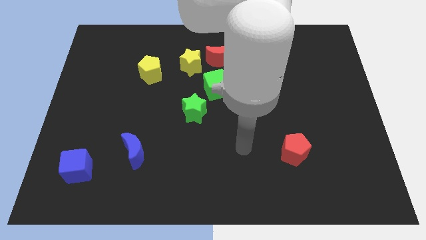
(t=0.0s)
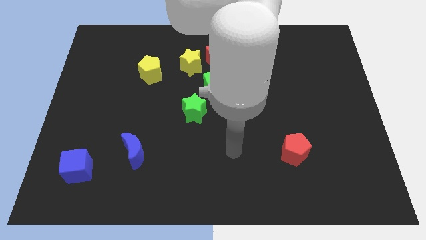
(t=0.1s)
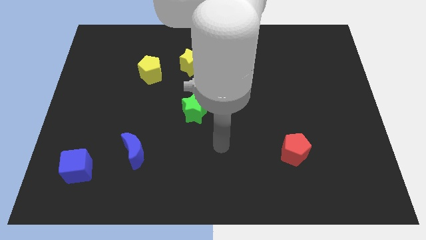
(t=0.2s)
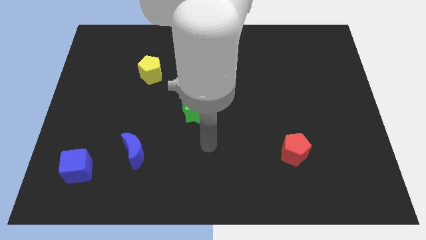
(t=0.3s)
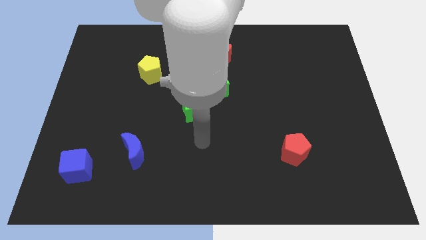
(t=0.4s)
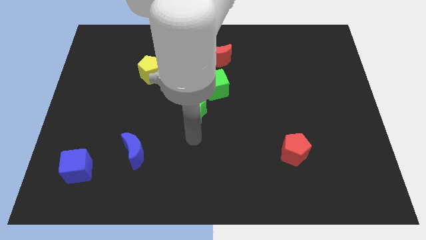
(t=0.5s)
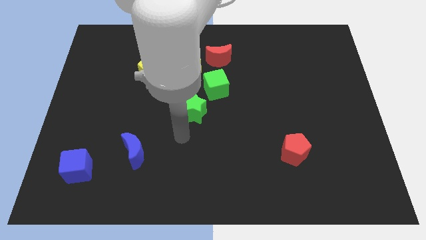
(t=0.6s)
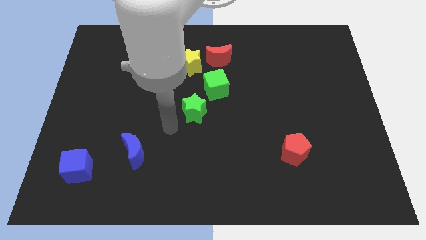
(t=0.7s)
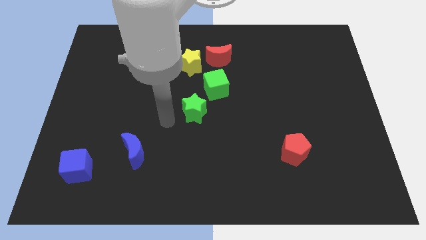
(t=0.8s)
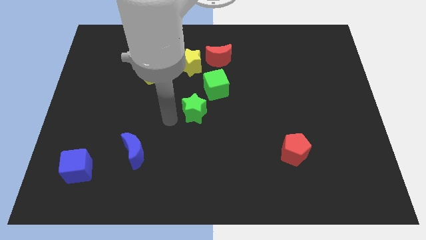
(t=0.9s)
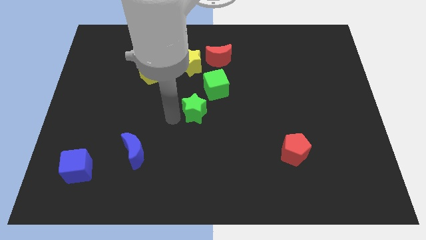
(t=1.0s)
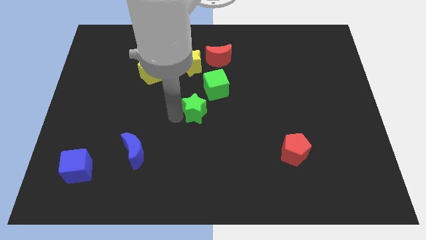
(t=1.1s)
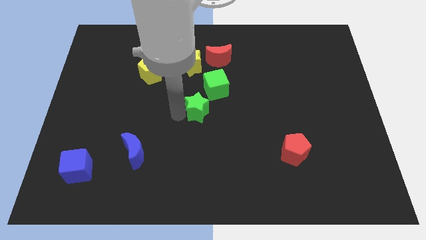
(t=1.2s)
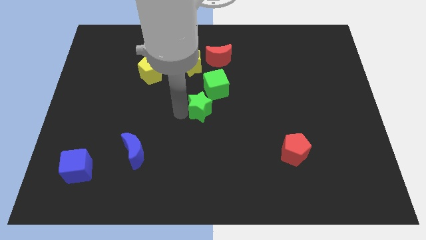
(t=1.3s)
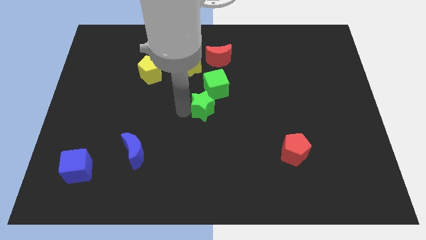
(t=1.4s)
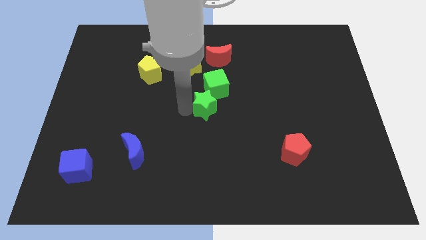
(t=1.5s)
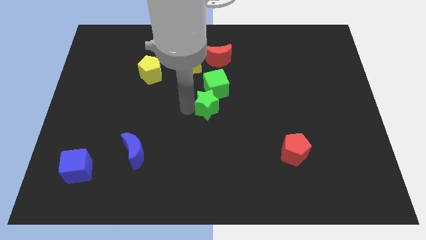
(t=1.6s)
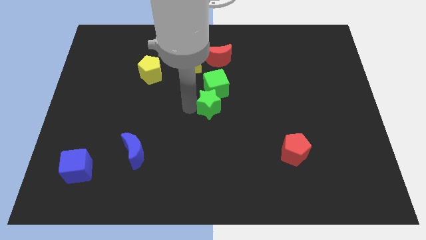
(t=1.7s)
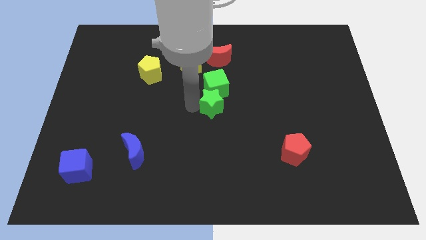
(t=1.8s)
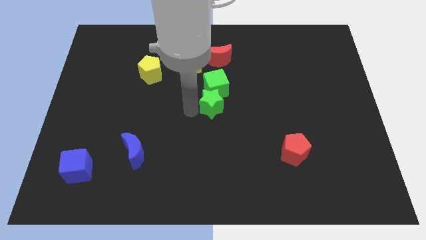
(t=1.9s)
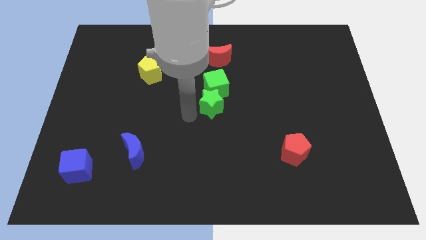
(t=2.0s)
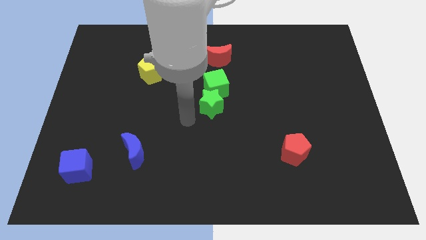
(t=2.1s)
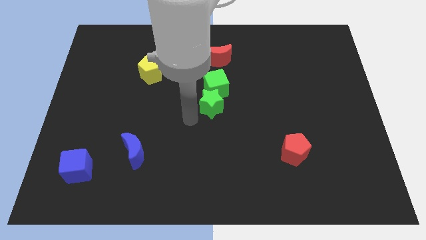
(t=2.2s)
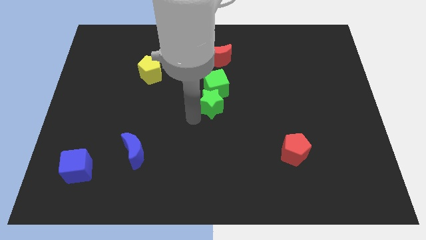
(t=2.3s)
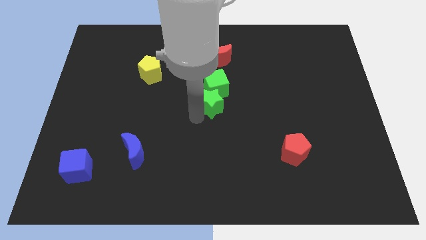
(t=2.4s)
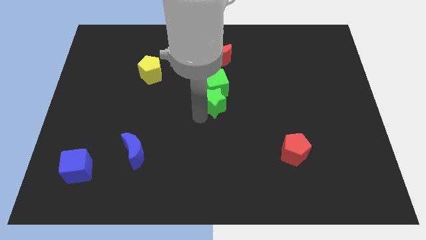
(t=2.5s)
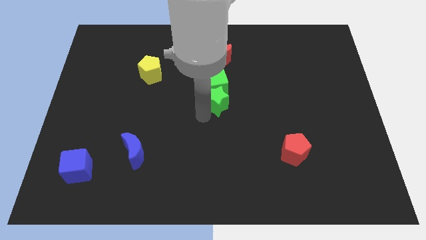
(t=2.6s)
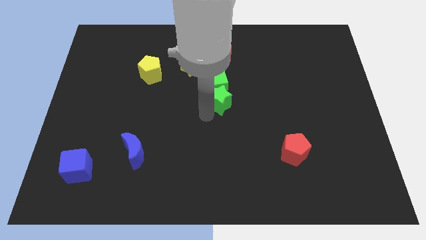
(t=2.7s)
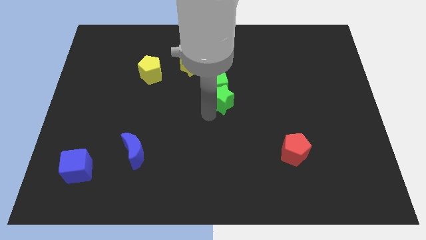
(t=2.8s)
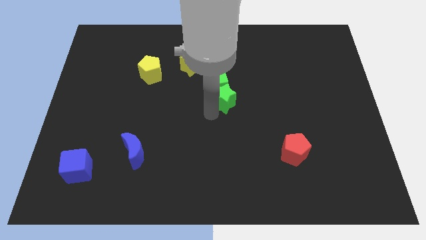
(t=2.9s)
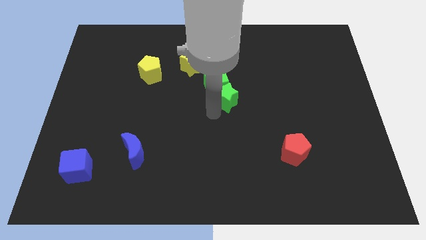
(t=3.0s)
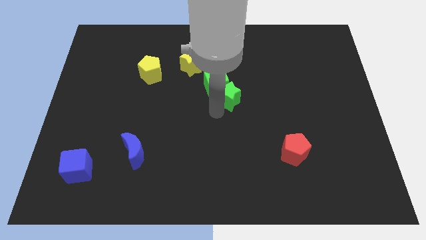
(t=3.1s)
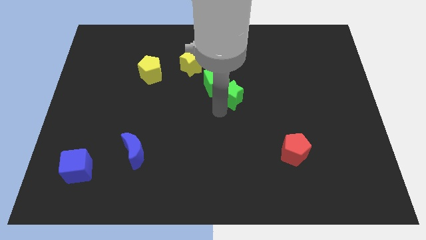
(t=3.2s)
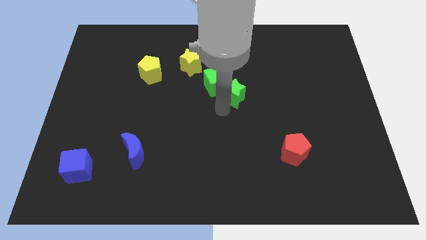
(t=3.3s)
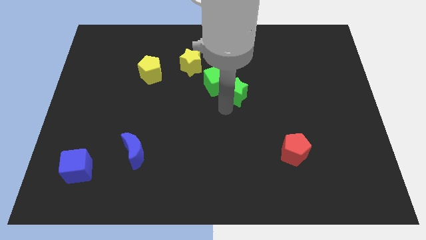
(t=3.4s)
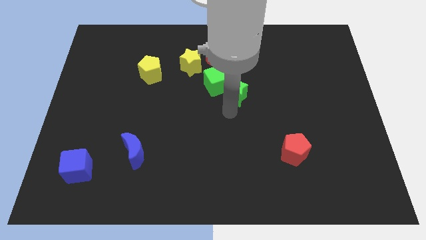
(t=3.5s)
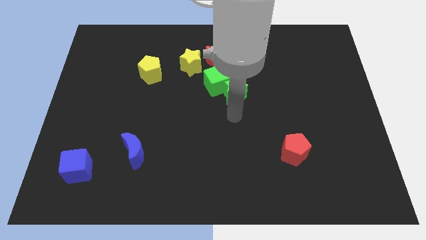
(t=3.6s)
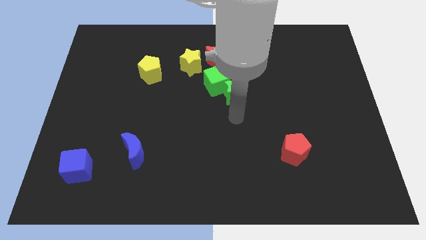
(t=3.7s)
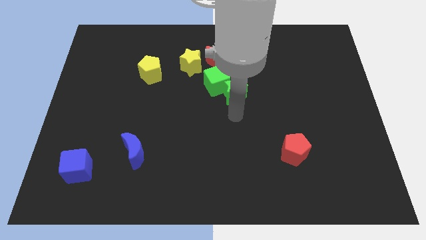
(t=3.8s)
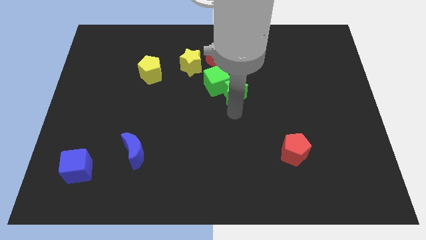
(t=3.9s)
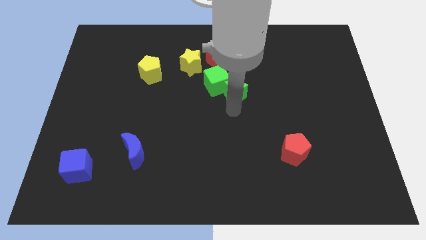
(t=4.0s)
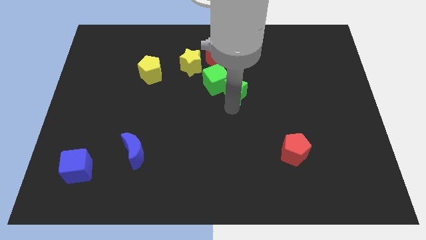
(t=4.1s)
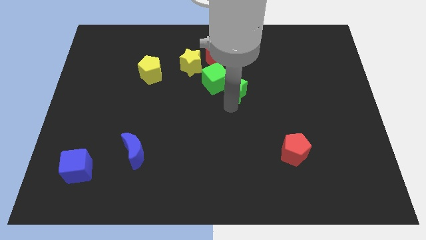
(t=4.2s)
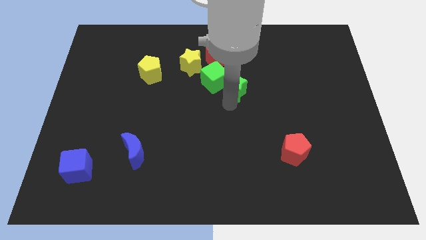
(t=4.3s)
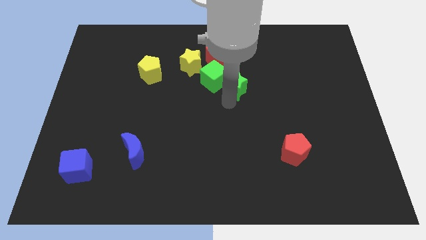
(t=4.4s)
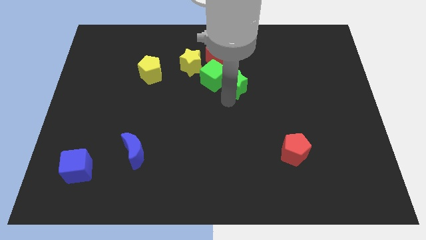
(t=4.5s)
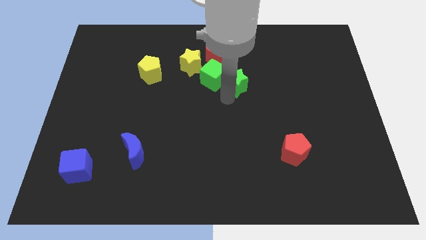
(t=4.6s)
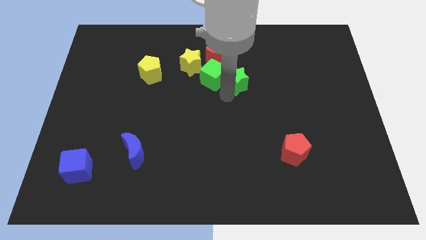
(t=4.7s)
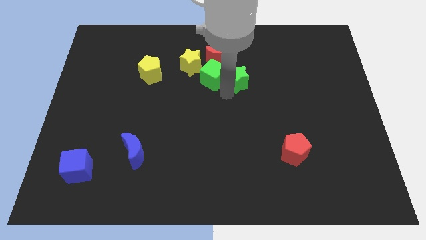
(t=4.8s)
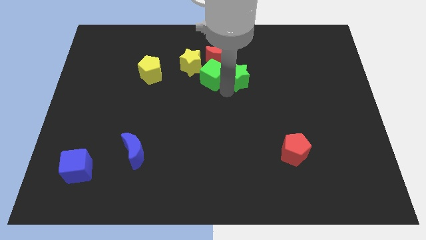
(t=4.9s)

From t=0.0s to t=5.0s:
push the green star to the right of the yellow star

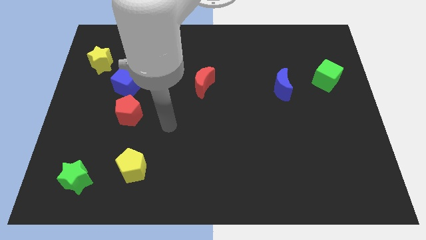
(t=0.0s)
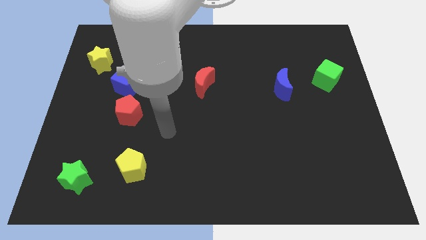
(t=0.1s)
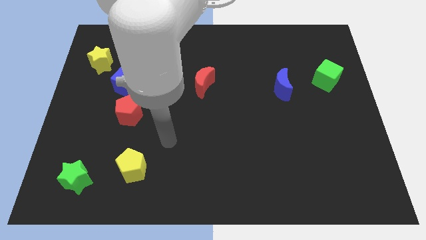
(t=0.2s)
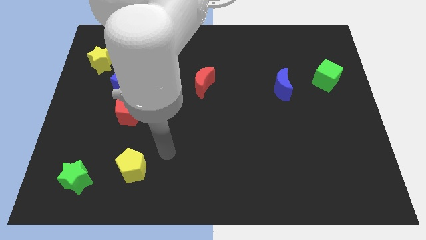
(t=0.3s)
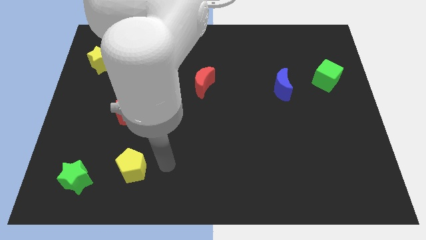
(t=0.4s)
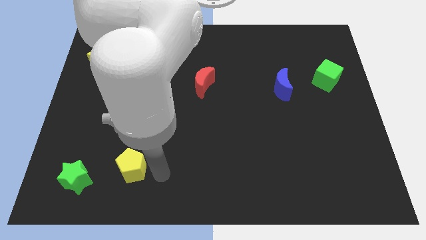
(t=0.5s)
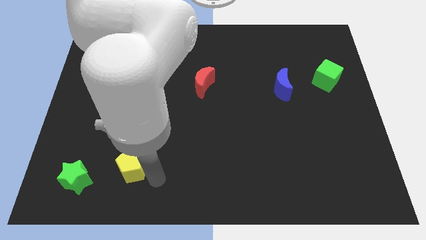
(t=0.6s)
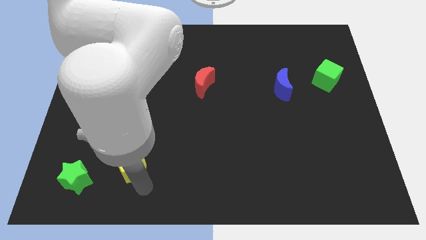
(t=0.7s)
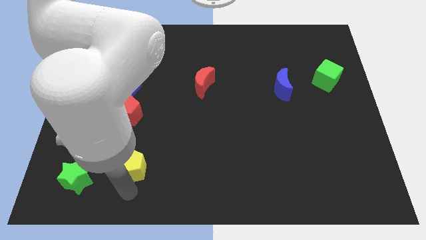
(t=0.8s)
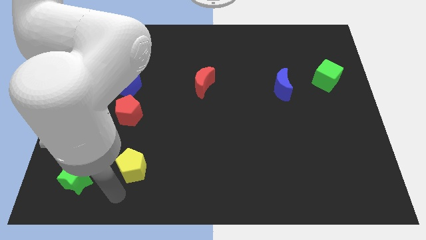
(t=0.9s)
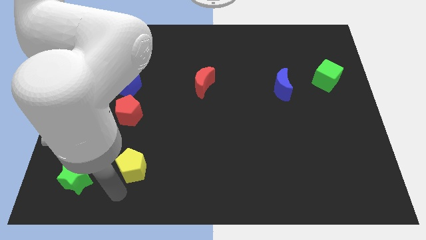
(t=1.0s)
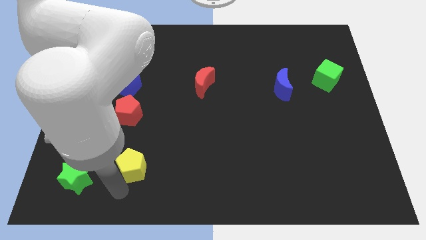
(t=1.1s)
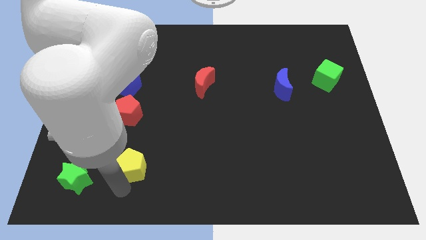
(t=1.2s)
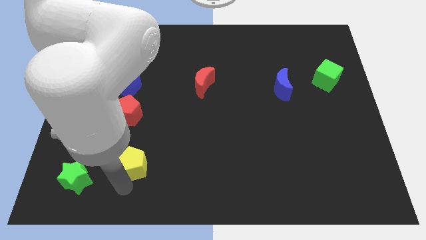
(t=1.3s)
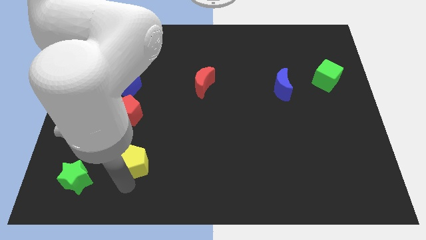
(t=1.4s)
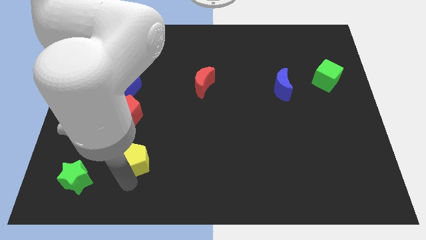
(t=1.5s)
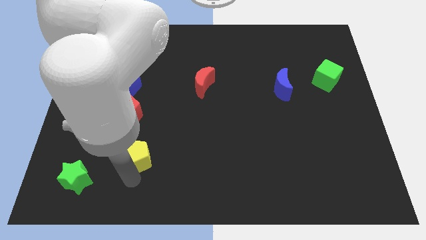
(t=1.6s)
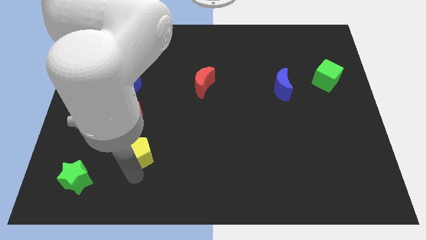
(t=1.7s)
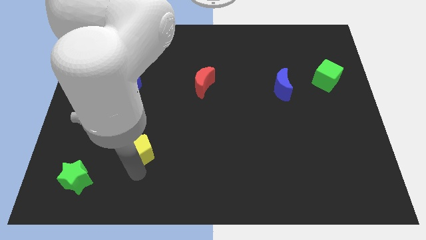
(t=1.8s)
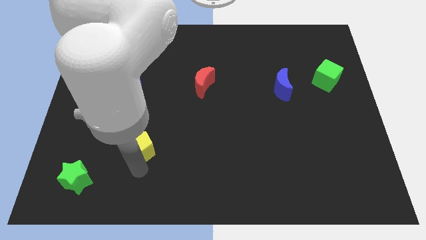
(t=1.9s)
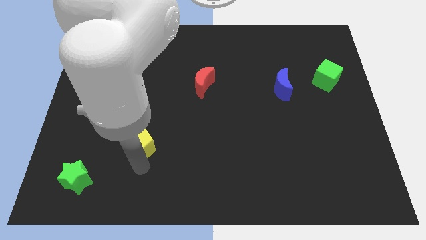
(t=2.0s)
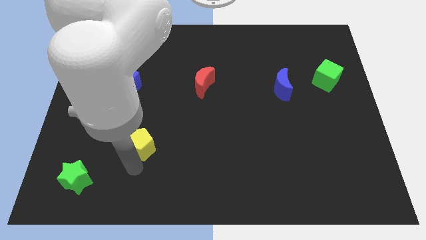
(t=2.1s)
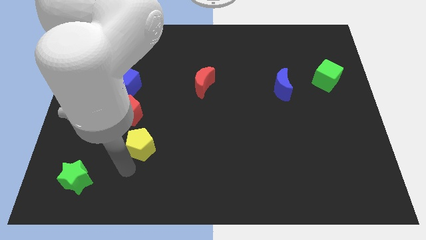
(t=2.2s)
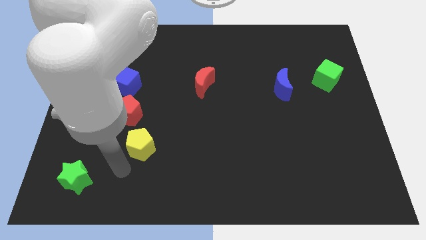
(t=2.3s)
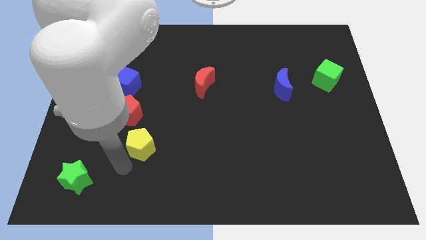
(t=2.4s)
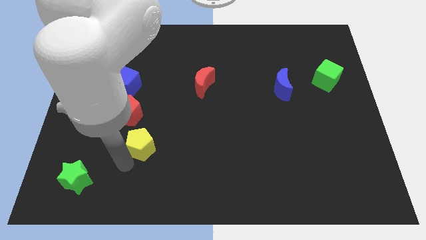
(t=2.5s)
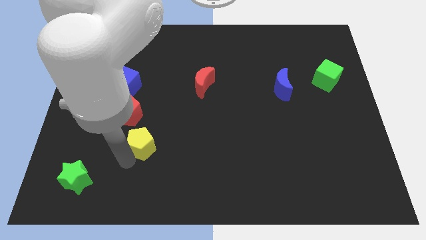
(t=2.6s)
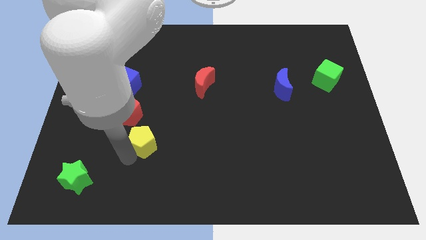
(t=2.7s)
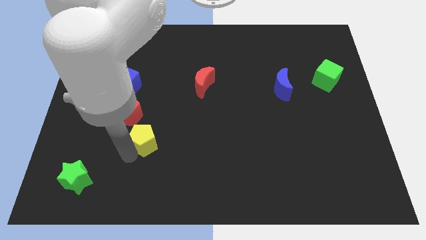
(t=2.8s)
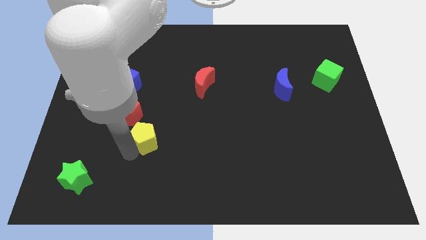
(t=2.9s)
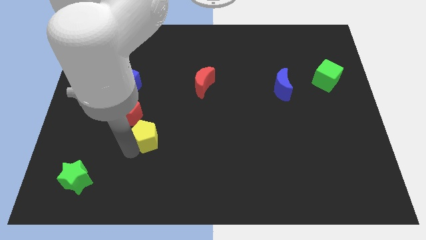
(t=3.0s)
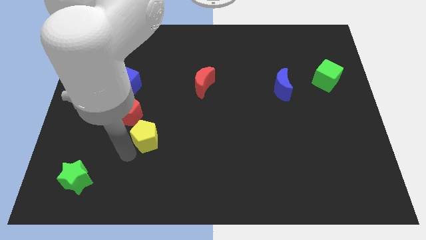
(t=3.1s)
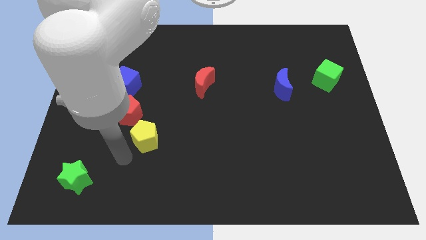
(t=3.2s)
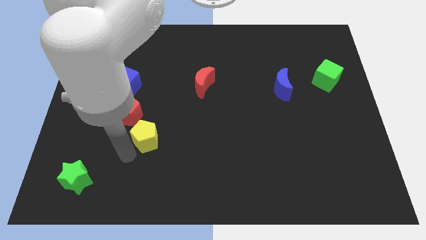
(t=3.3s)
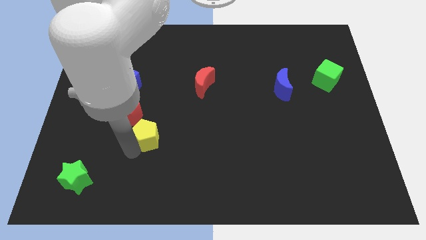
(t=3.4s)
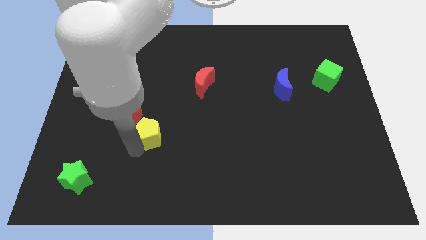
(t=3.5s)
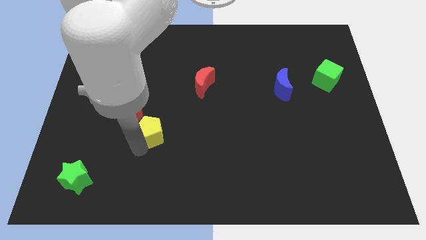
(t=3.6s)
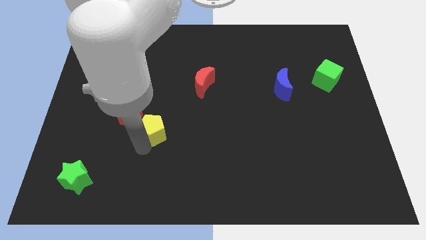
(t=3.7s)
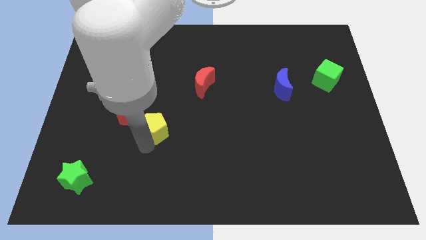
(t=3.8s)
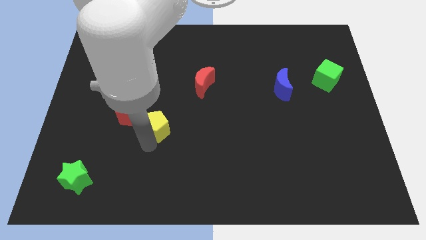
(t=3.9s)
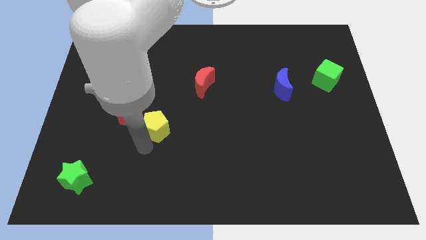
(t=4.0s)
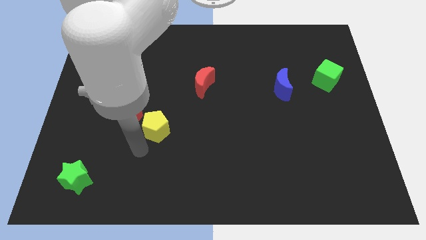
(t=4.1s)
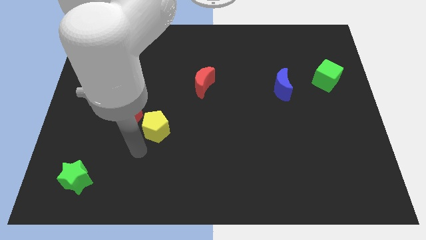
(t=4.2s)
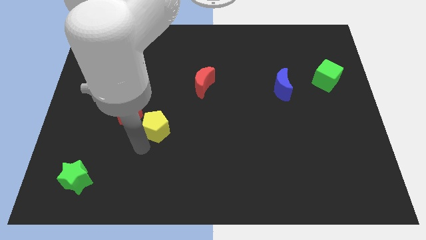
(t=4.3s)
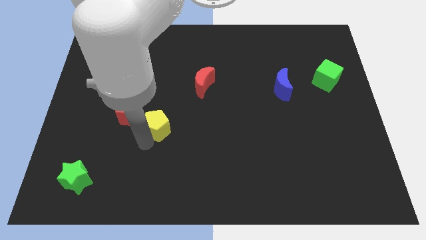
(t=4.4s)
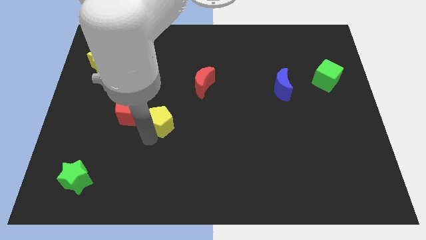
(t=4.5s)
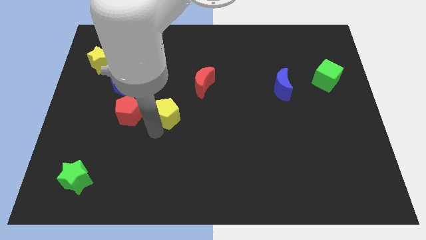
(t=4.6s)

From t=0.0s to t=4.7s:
move the yellow pentagon to the bottom left side of the red moon
